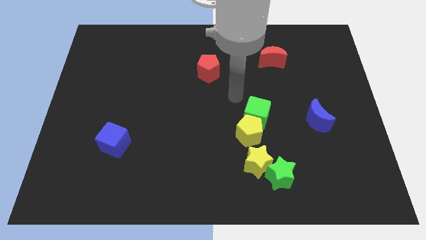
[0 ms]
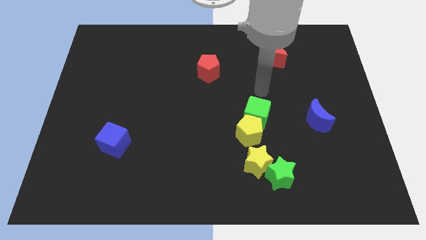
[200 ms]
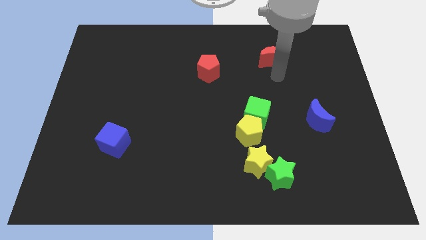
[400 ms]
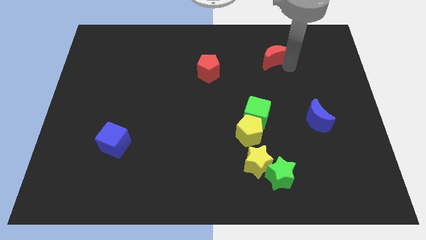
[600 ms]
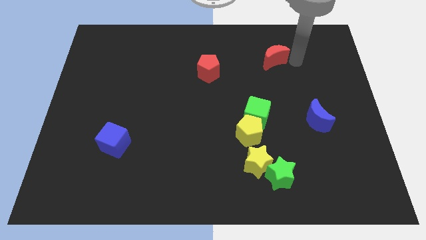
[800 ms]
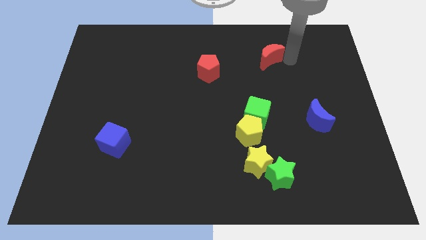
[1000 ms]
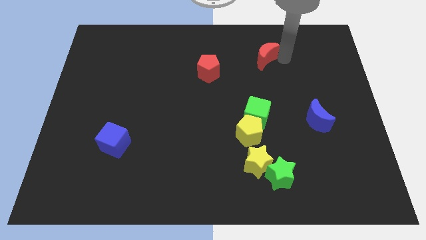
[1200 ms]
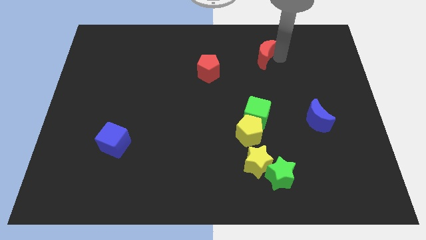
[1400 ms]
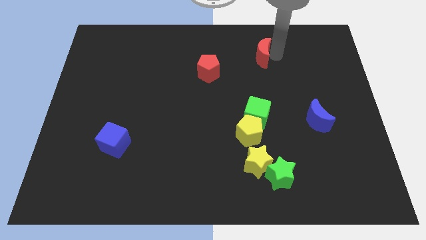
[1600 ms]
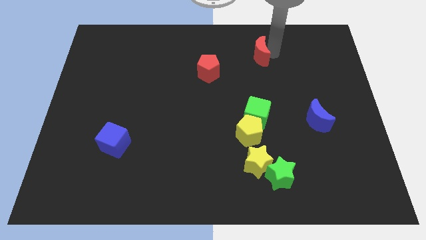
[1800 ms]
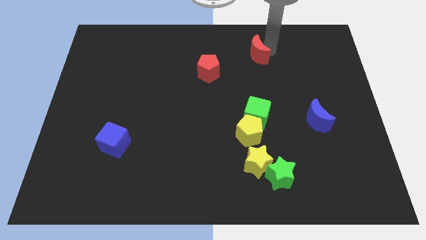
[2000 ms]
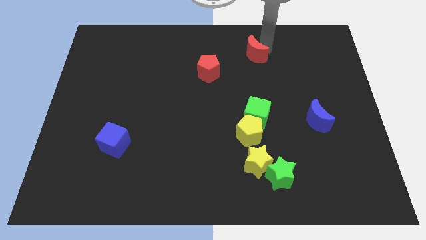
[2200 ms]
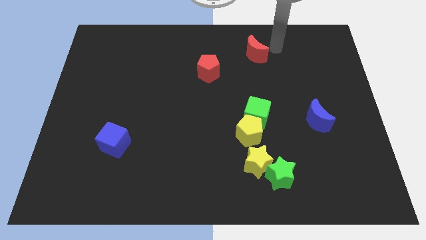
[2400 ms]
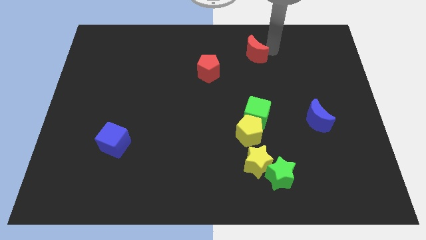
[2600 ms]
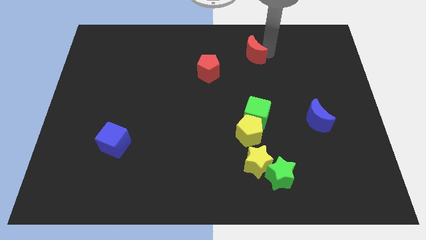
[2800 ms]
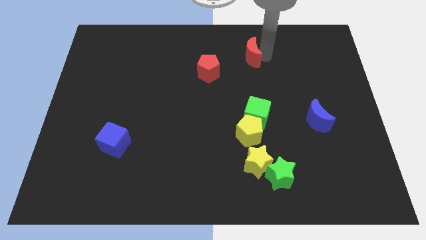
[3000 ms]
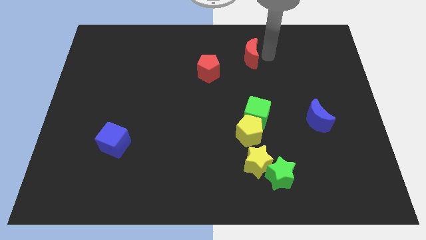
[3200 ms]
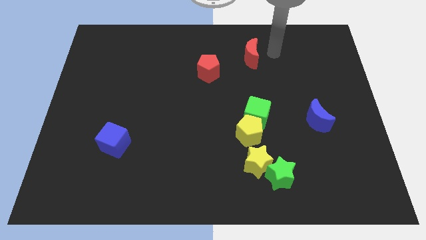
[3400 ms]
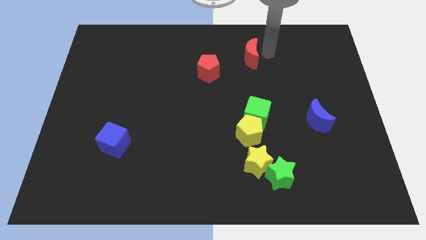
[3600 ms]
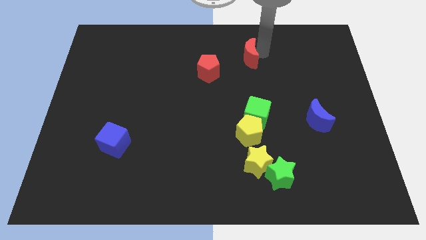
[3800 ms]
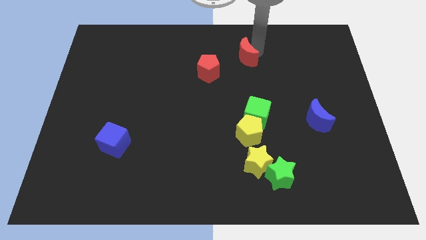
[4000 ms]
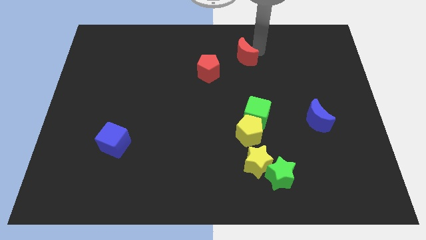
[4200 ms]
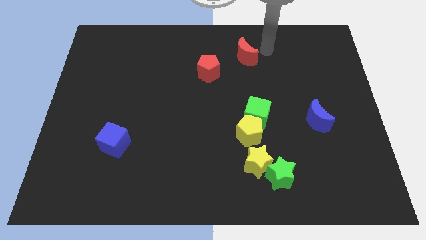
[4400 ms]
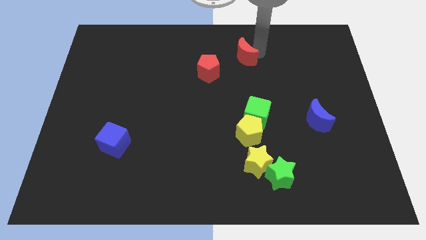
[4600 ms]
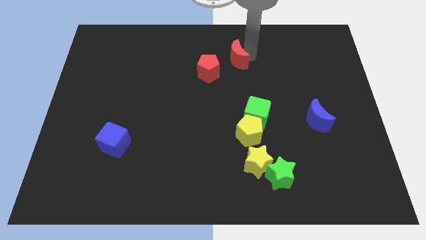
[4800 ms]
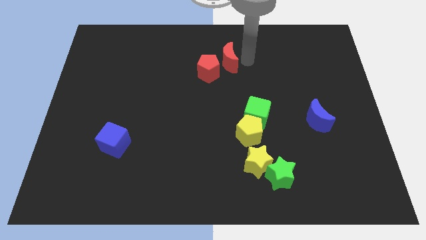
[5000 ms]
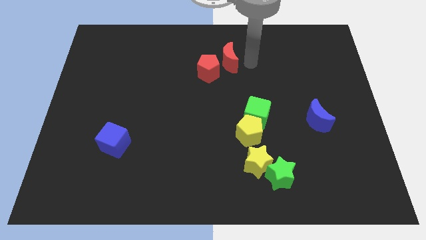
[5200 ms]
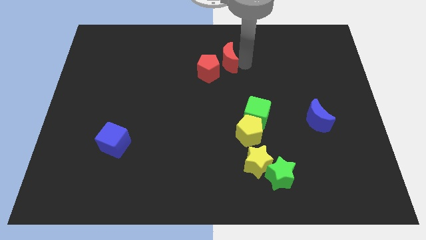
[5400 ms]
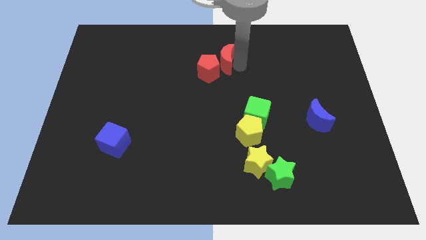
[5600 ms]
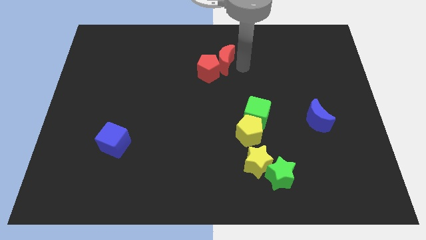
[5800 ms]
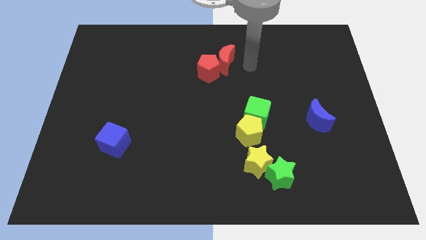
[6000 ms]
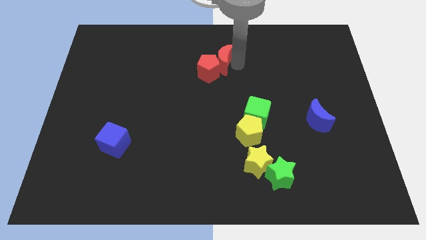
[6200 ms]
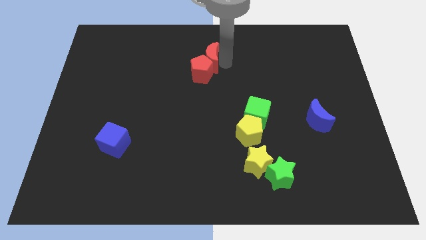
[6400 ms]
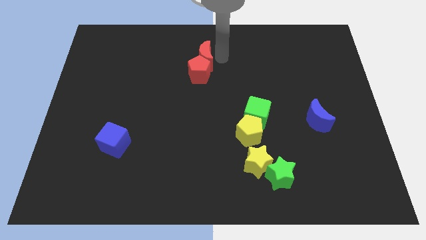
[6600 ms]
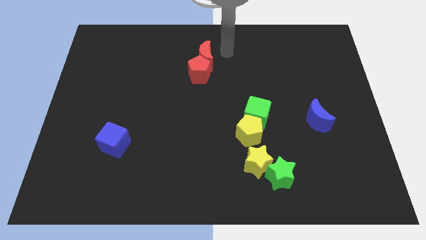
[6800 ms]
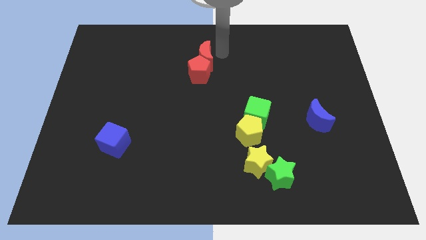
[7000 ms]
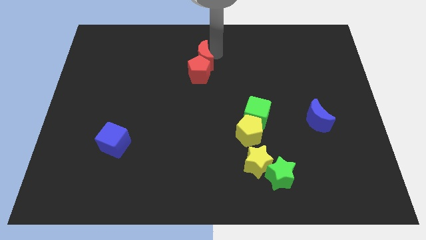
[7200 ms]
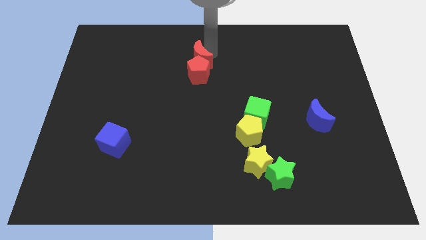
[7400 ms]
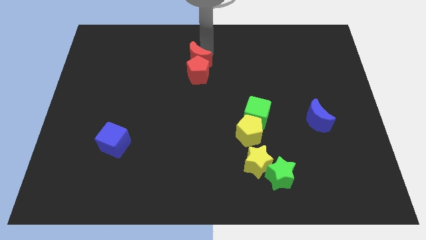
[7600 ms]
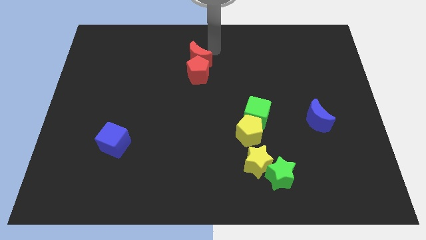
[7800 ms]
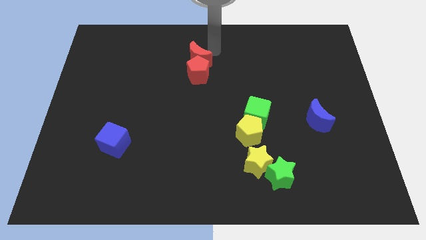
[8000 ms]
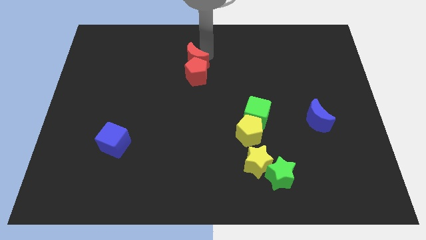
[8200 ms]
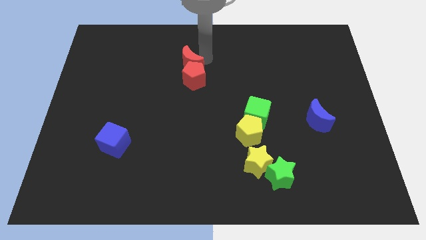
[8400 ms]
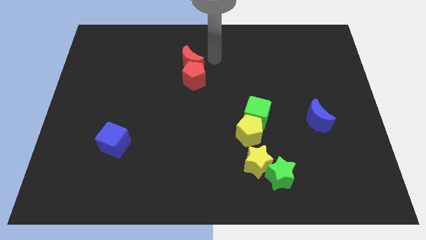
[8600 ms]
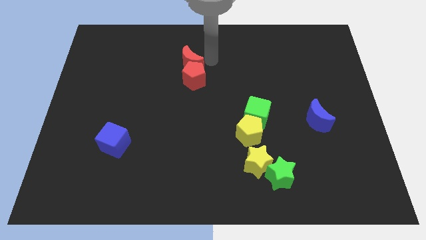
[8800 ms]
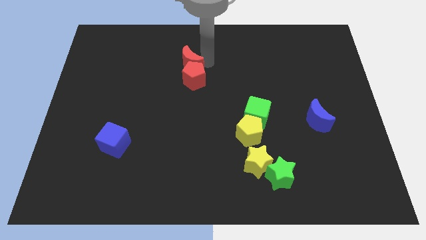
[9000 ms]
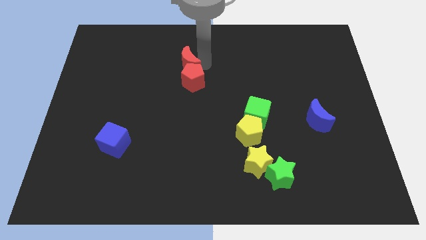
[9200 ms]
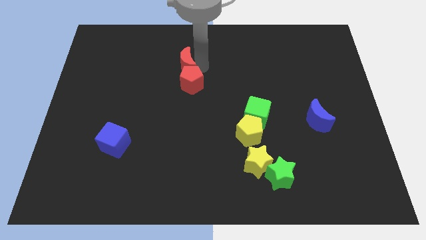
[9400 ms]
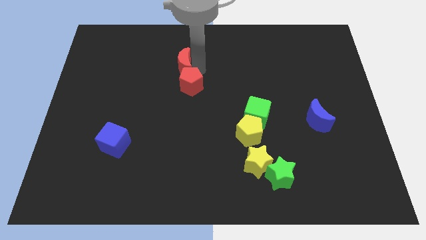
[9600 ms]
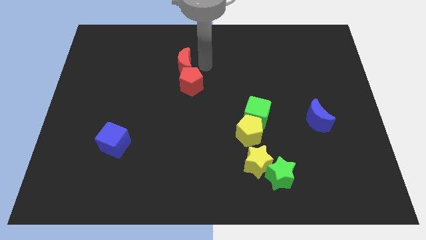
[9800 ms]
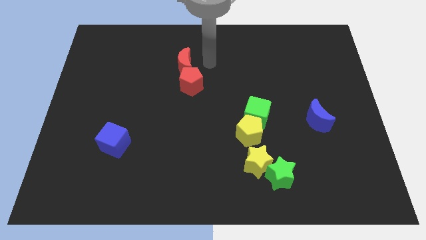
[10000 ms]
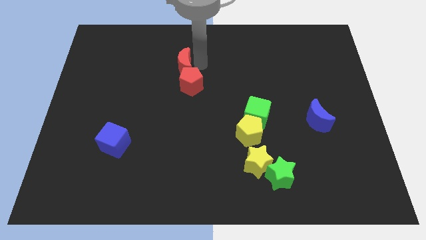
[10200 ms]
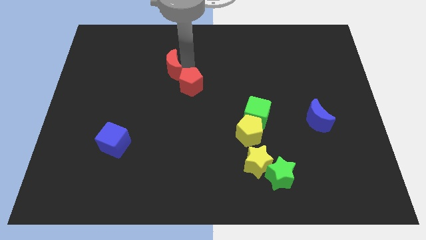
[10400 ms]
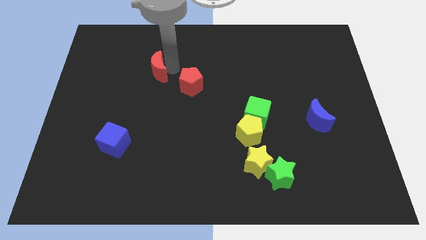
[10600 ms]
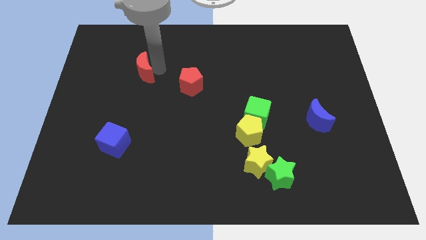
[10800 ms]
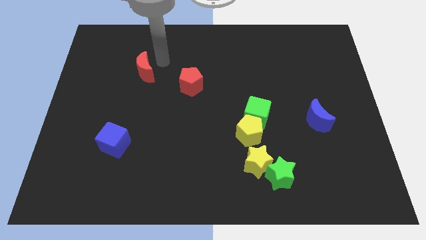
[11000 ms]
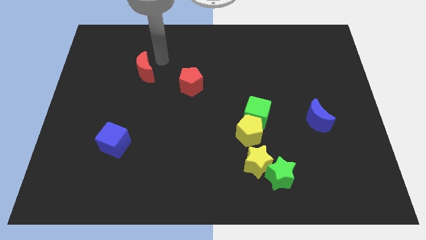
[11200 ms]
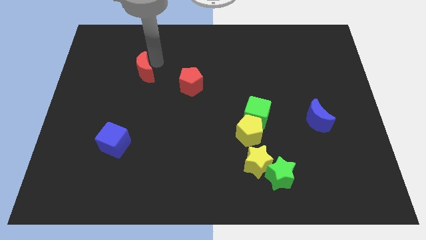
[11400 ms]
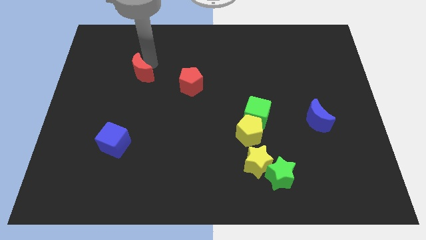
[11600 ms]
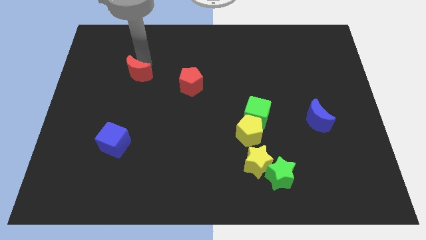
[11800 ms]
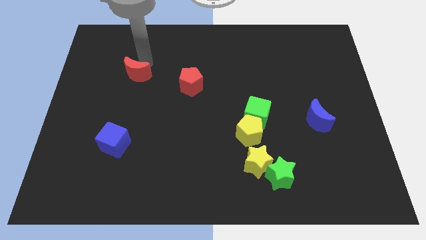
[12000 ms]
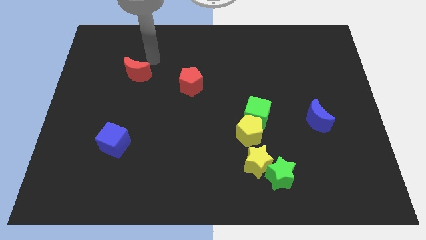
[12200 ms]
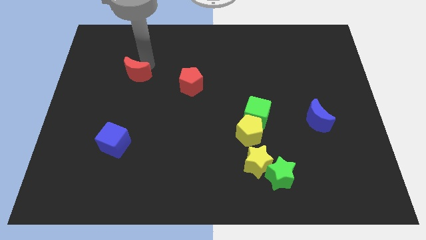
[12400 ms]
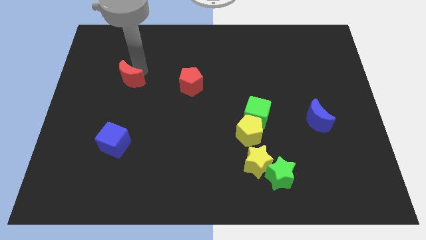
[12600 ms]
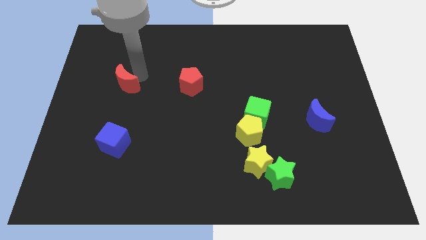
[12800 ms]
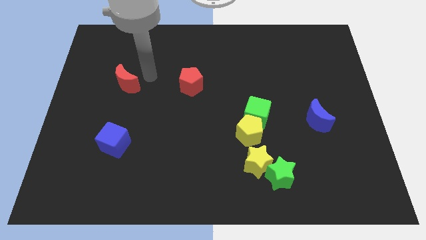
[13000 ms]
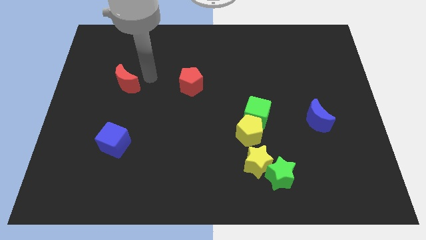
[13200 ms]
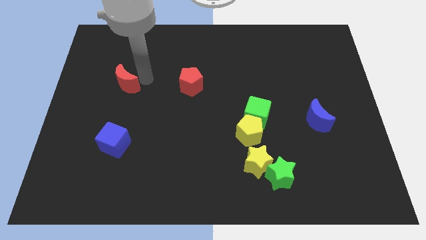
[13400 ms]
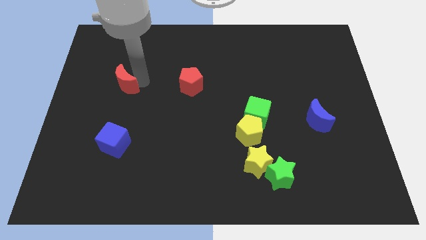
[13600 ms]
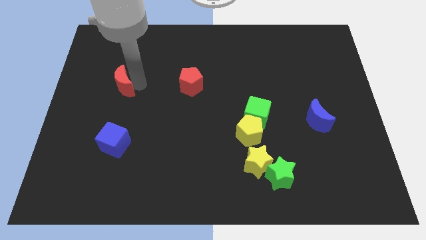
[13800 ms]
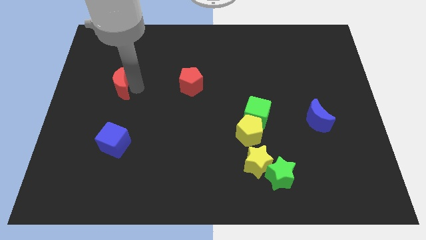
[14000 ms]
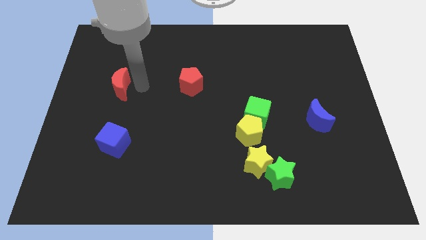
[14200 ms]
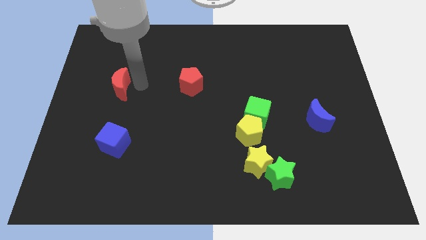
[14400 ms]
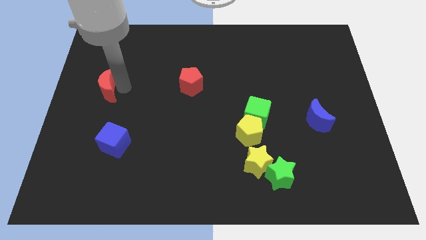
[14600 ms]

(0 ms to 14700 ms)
slide the red moon to the left side of the board
